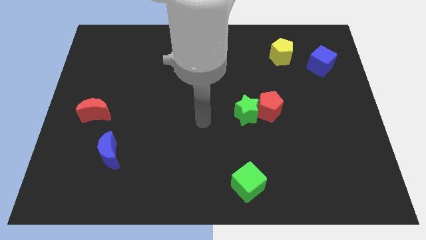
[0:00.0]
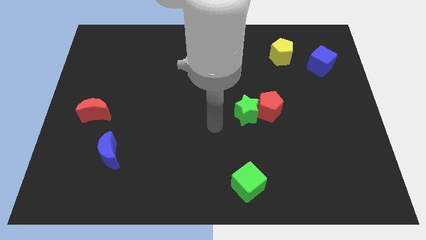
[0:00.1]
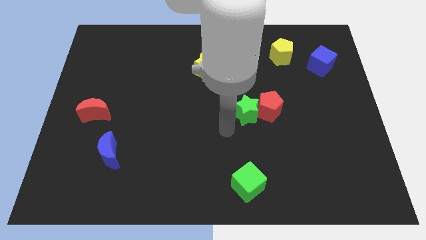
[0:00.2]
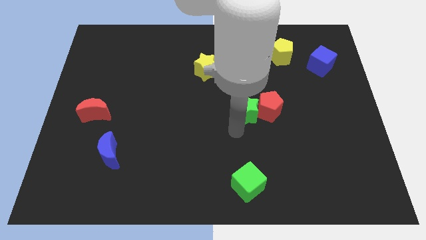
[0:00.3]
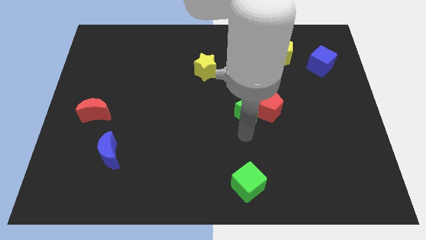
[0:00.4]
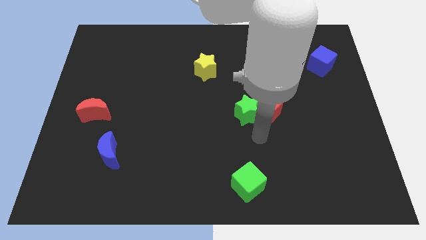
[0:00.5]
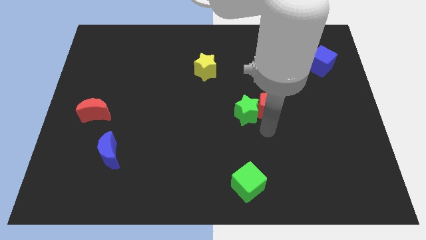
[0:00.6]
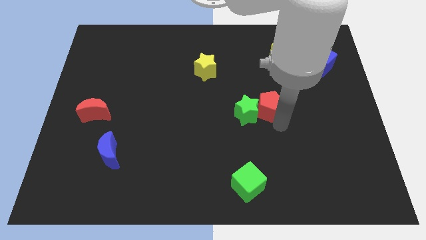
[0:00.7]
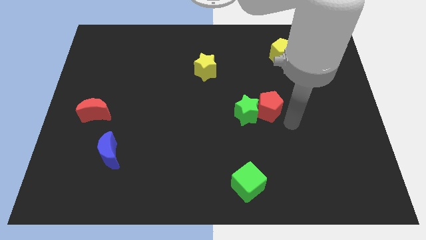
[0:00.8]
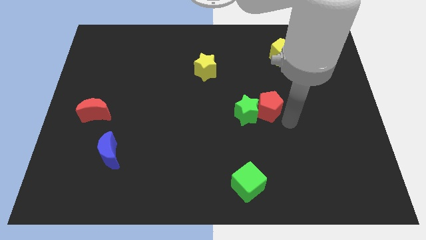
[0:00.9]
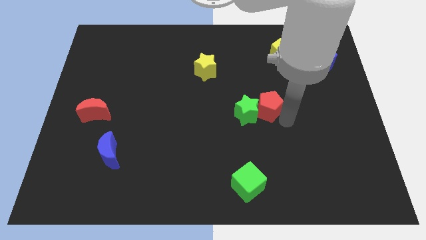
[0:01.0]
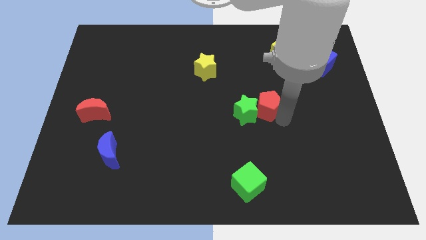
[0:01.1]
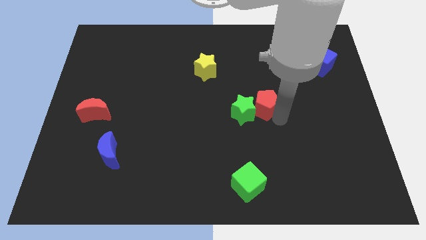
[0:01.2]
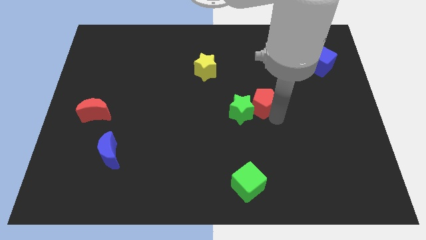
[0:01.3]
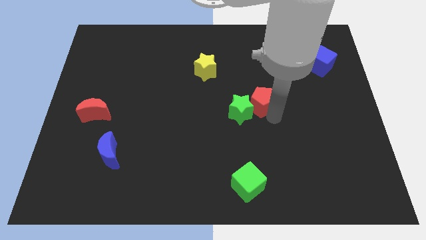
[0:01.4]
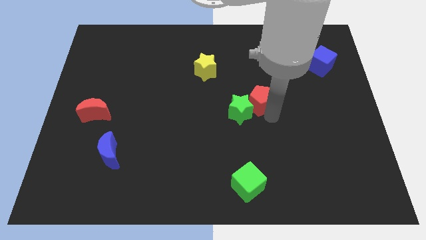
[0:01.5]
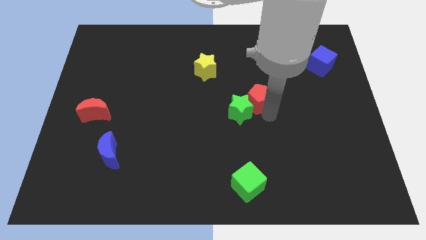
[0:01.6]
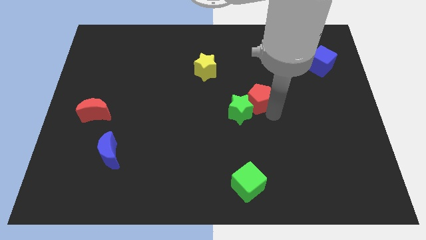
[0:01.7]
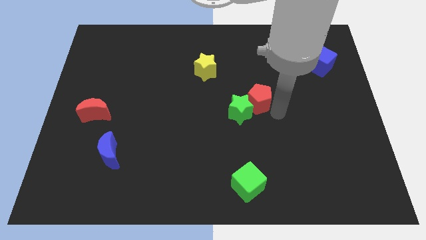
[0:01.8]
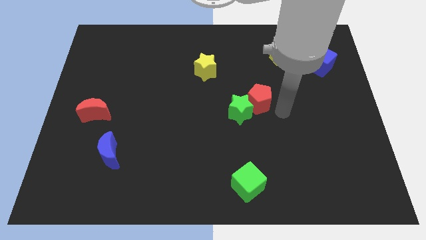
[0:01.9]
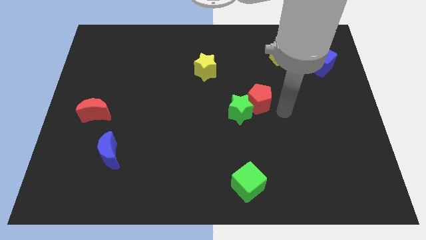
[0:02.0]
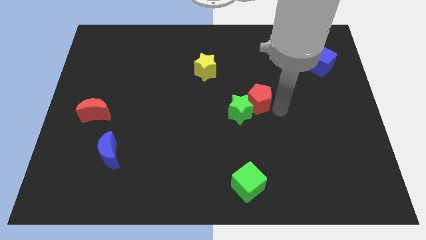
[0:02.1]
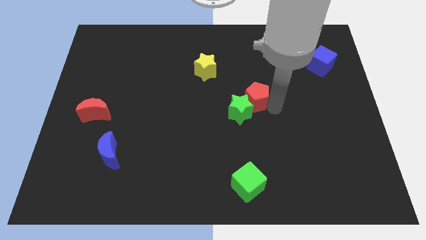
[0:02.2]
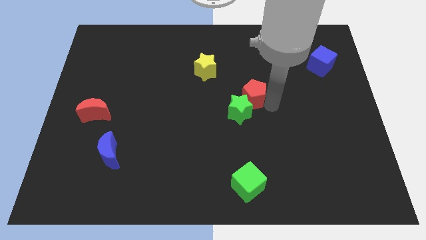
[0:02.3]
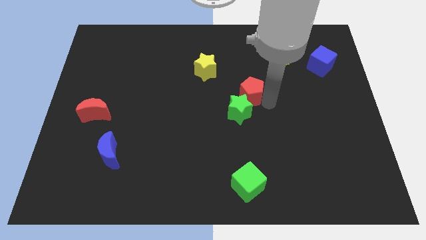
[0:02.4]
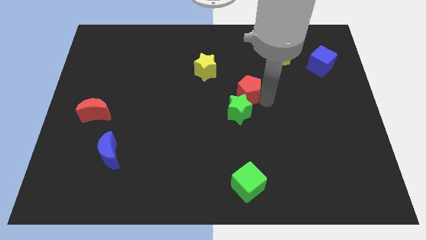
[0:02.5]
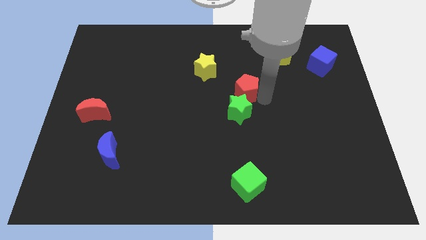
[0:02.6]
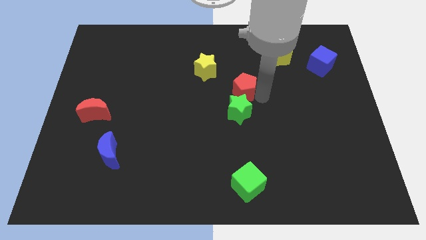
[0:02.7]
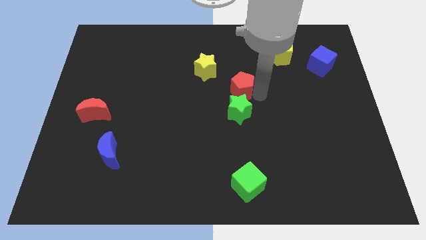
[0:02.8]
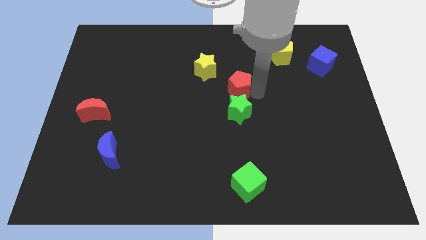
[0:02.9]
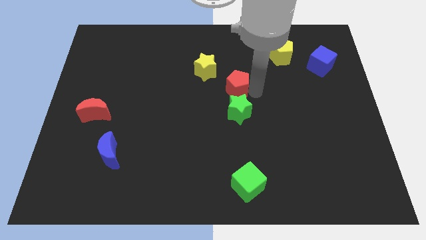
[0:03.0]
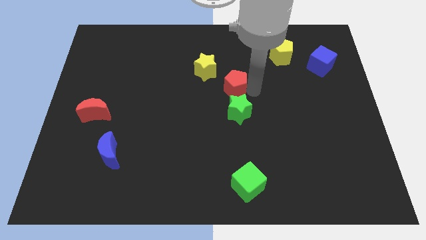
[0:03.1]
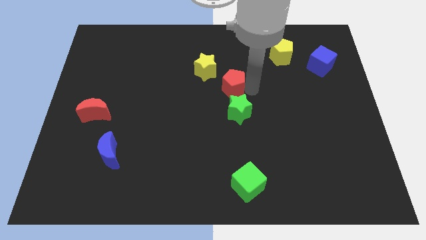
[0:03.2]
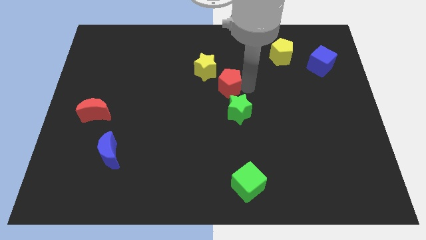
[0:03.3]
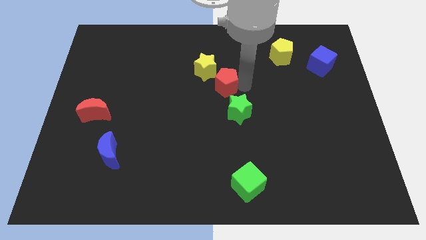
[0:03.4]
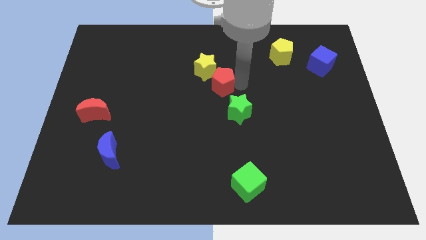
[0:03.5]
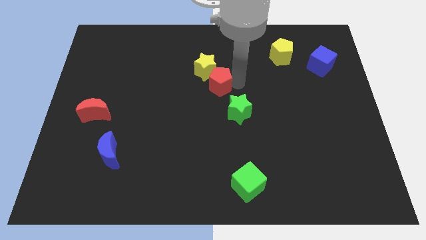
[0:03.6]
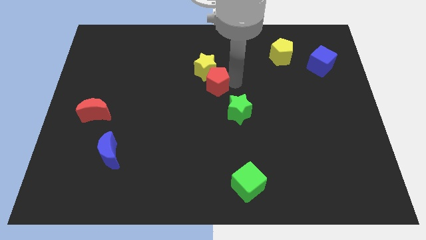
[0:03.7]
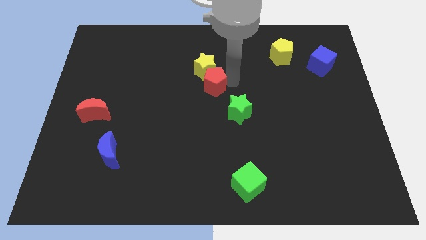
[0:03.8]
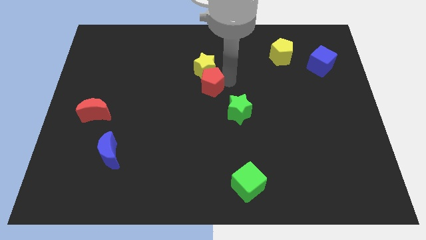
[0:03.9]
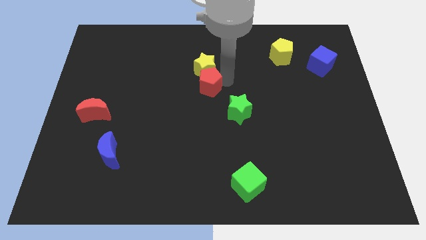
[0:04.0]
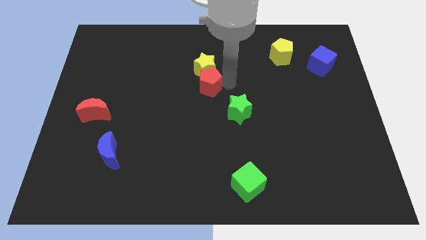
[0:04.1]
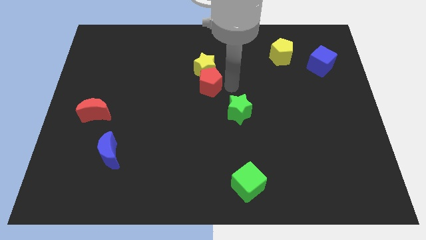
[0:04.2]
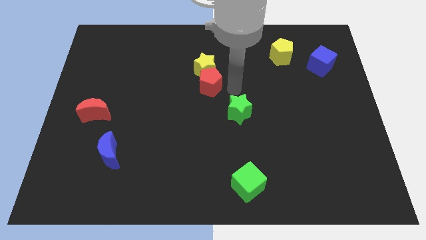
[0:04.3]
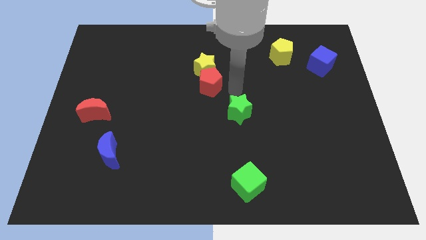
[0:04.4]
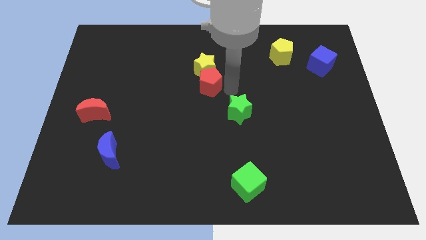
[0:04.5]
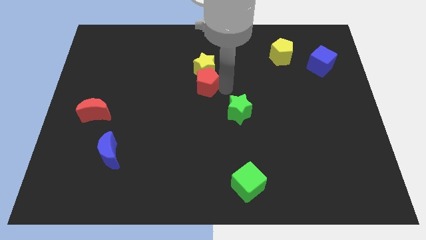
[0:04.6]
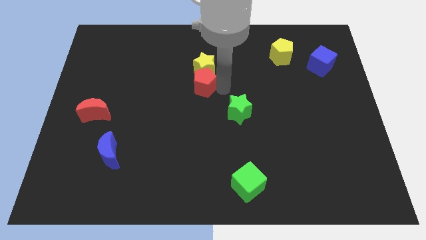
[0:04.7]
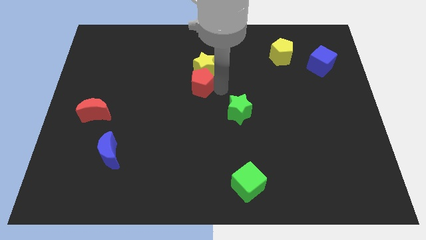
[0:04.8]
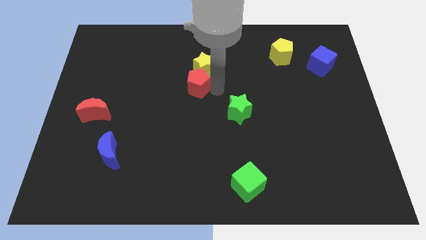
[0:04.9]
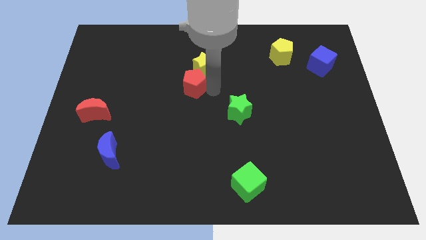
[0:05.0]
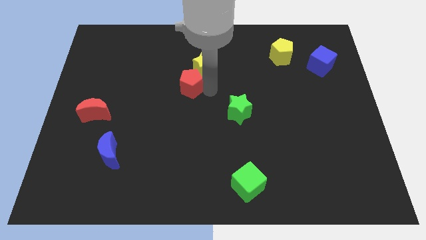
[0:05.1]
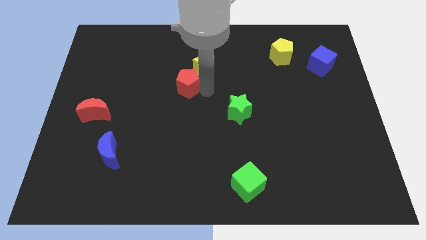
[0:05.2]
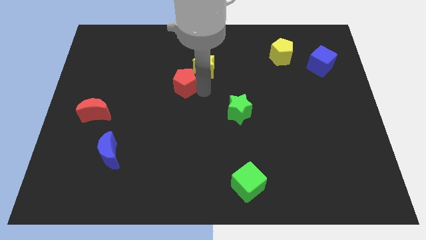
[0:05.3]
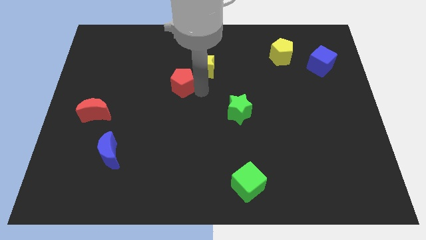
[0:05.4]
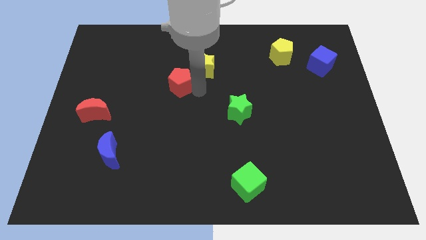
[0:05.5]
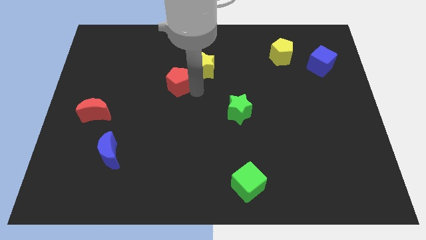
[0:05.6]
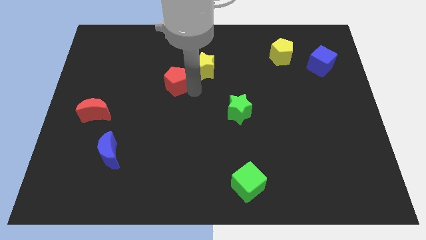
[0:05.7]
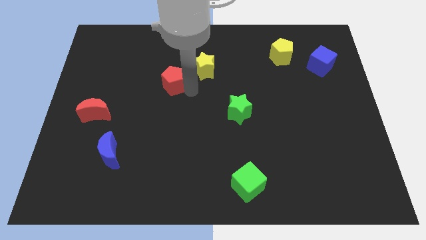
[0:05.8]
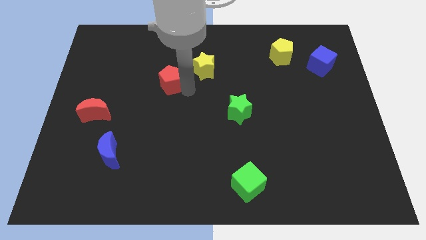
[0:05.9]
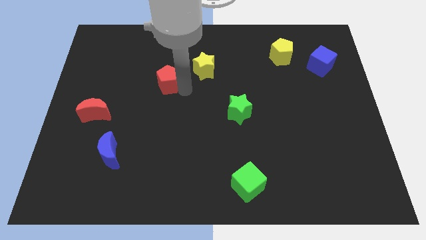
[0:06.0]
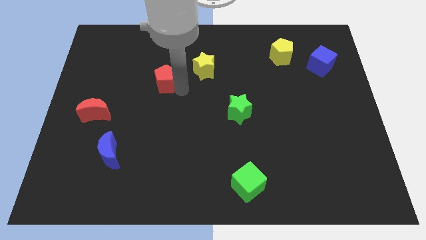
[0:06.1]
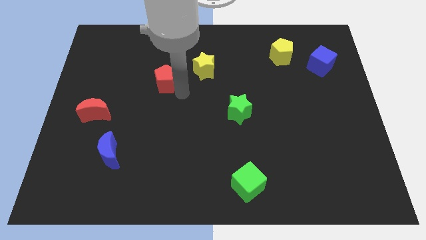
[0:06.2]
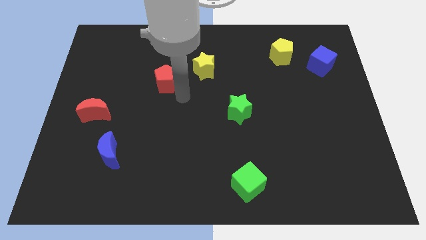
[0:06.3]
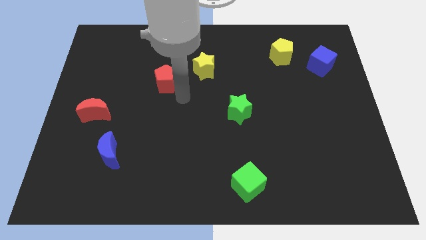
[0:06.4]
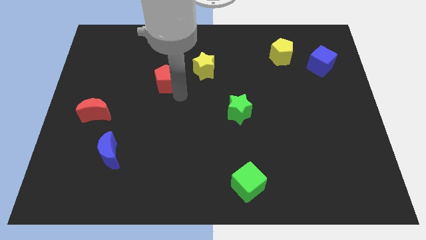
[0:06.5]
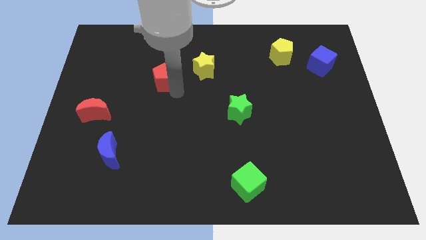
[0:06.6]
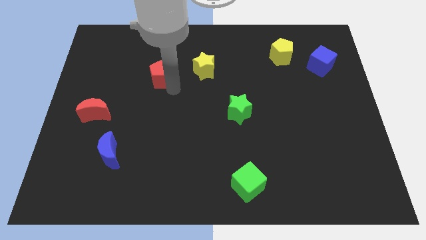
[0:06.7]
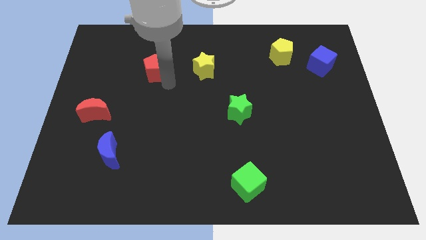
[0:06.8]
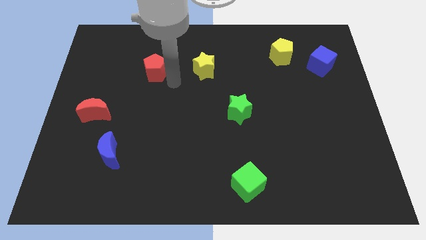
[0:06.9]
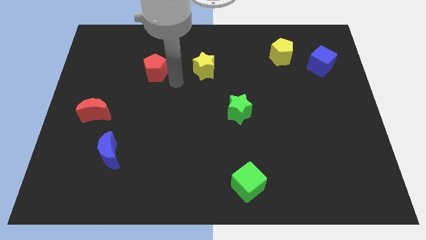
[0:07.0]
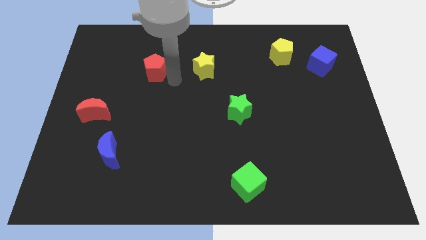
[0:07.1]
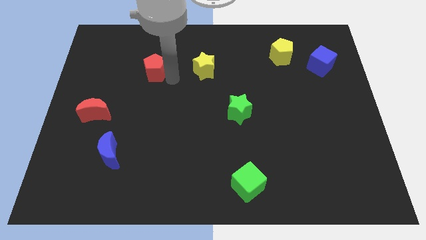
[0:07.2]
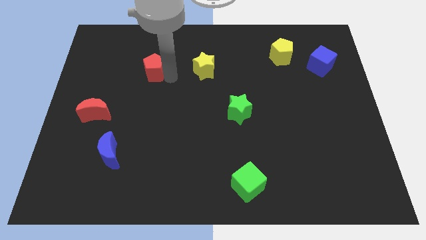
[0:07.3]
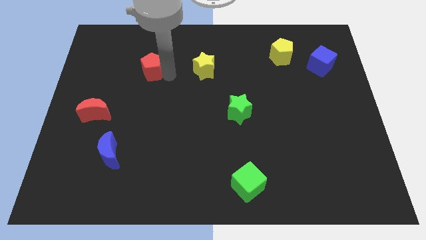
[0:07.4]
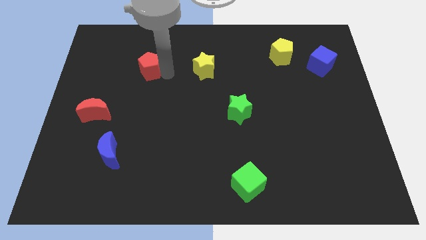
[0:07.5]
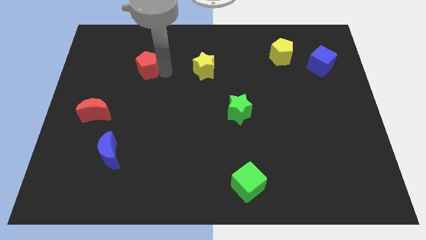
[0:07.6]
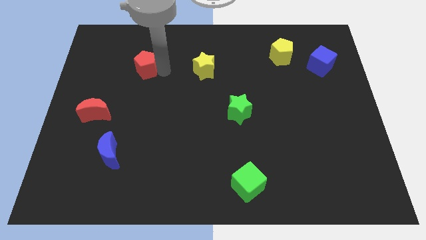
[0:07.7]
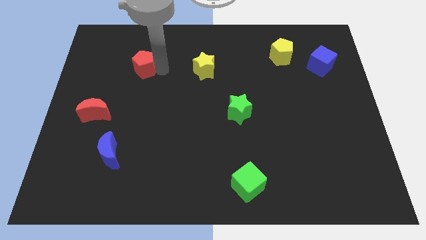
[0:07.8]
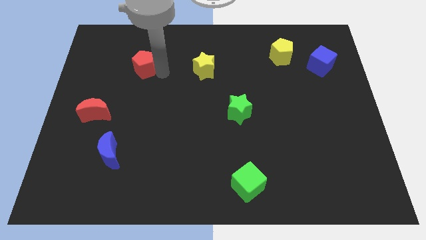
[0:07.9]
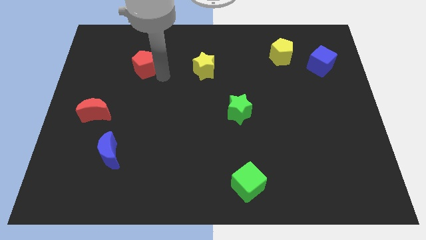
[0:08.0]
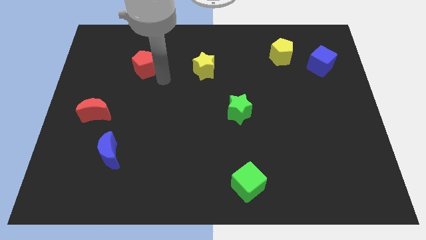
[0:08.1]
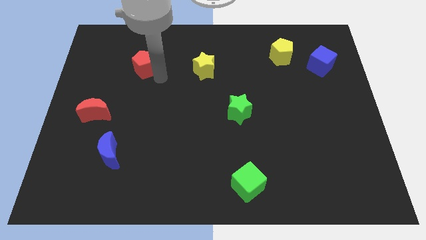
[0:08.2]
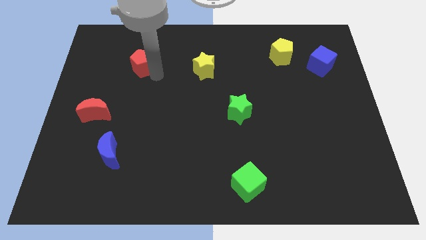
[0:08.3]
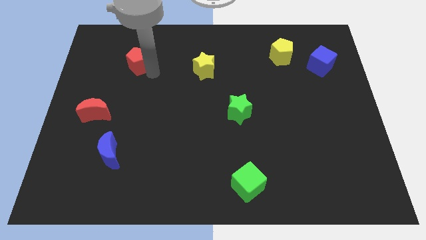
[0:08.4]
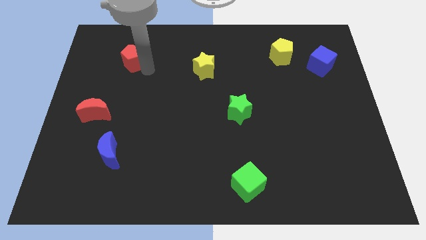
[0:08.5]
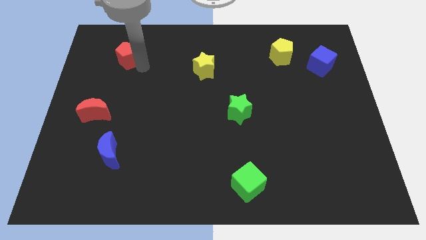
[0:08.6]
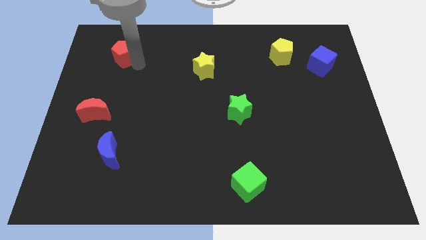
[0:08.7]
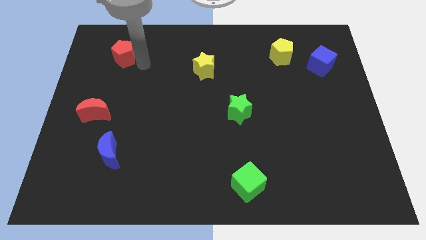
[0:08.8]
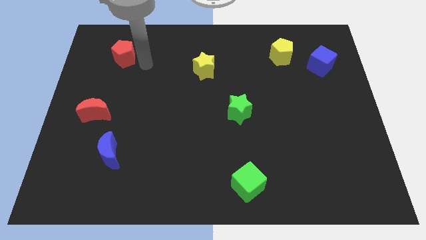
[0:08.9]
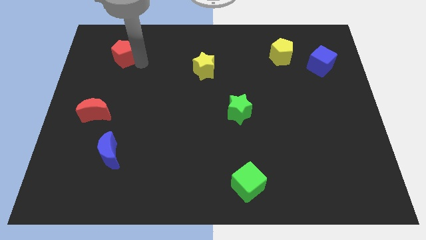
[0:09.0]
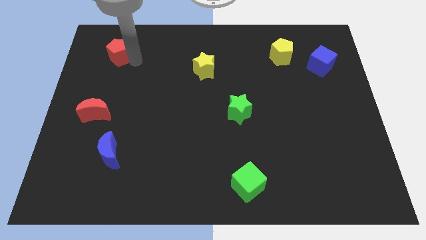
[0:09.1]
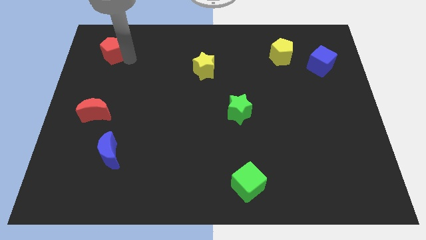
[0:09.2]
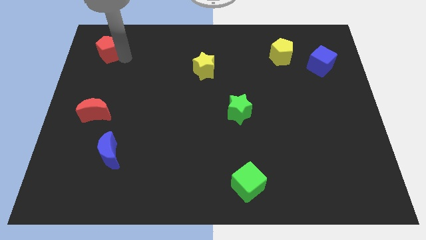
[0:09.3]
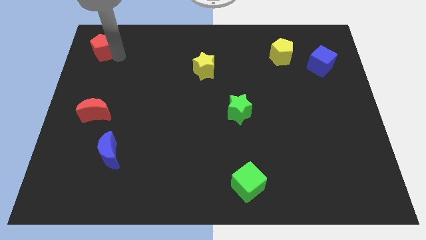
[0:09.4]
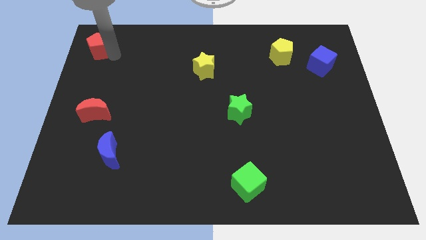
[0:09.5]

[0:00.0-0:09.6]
push the red pentagon to the upper left corner
